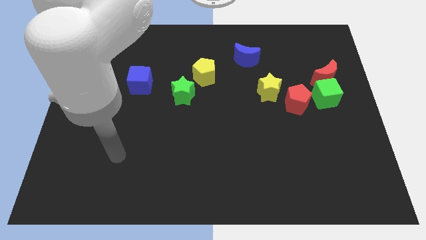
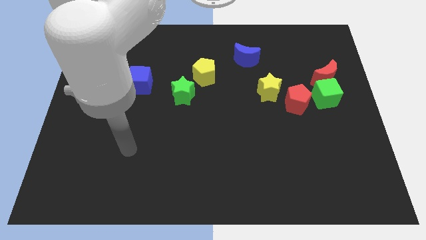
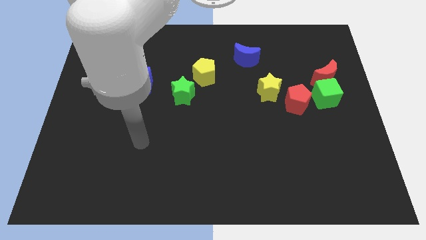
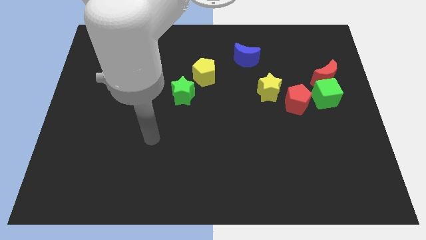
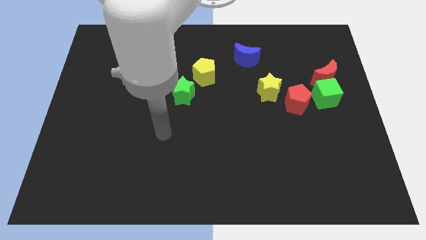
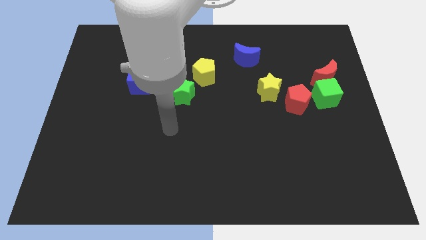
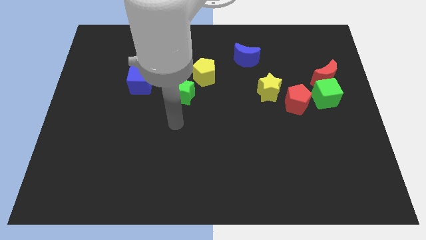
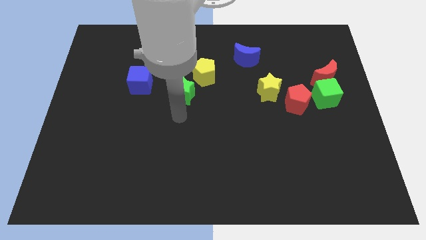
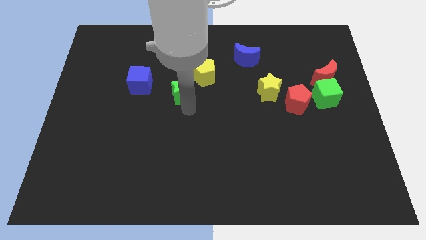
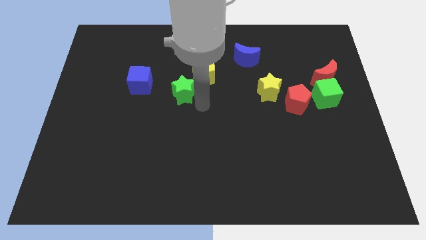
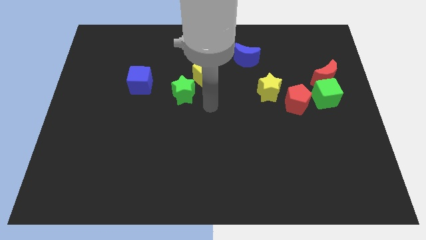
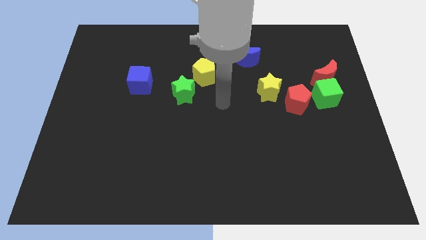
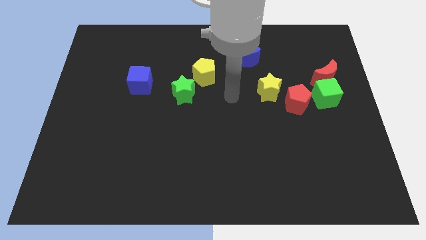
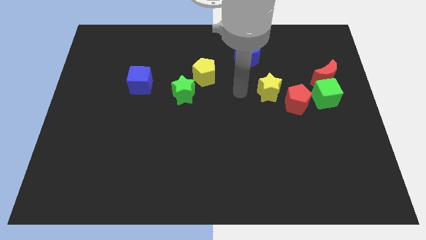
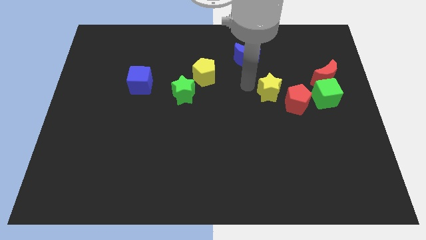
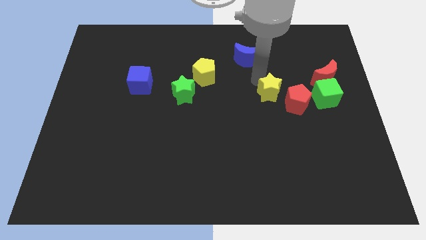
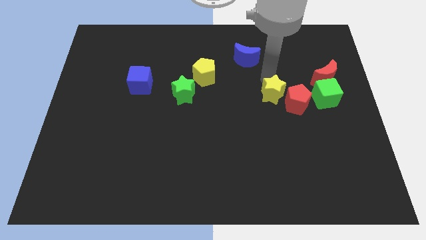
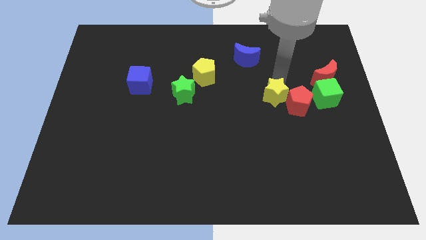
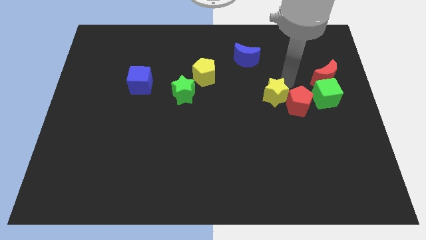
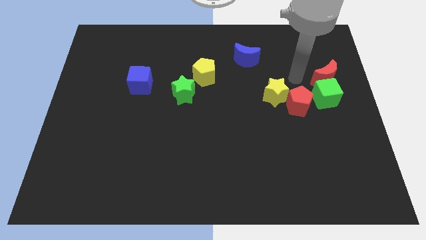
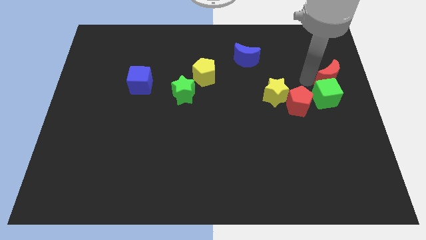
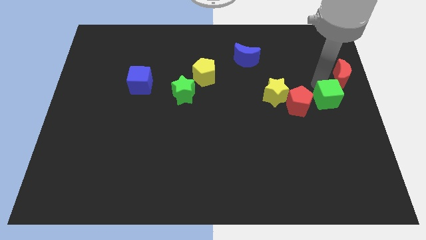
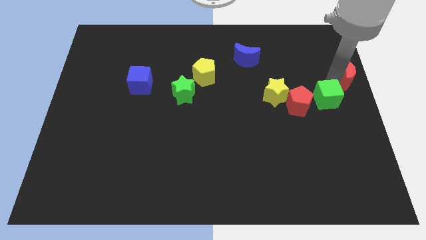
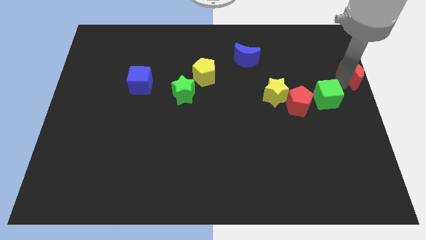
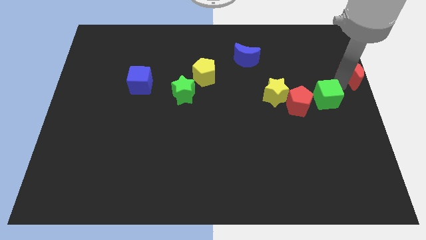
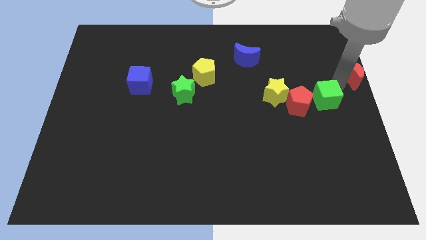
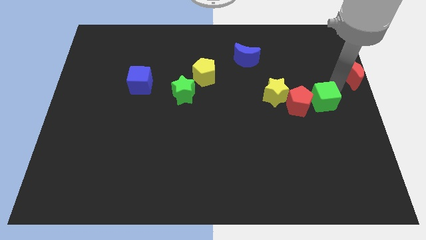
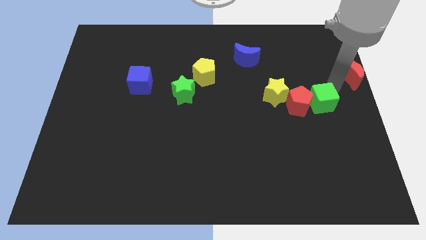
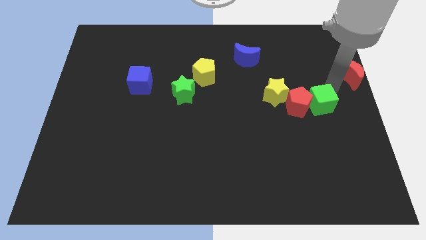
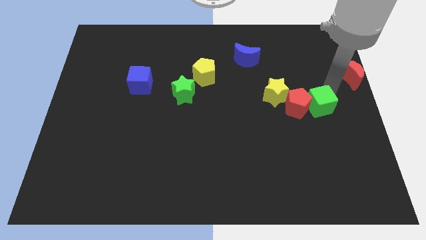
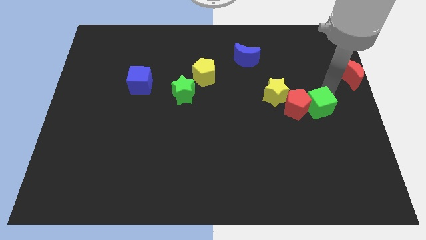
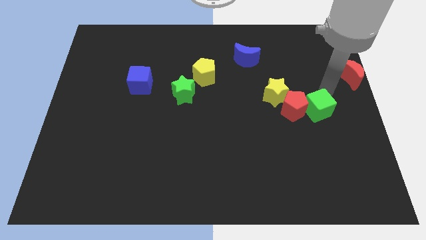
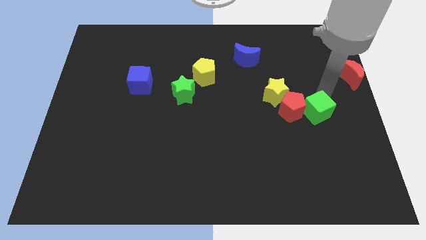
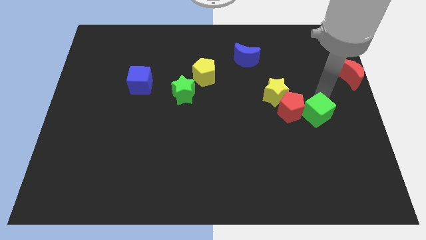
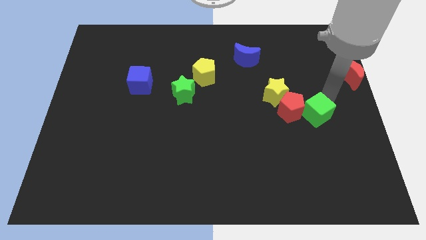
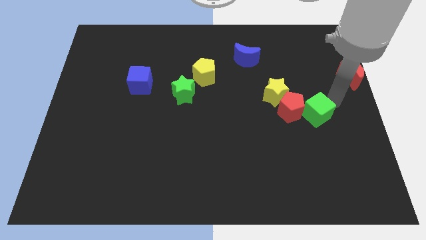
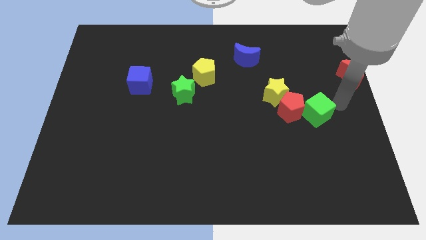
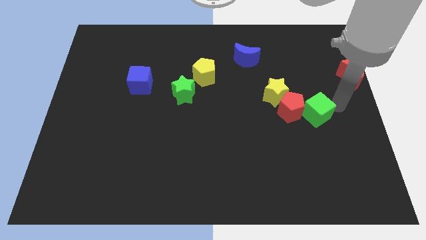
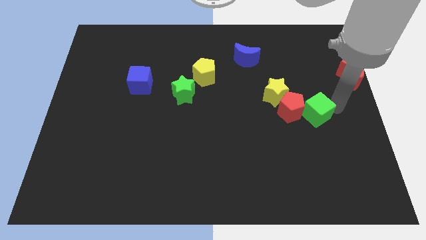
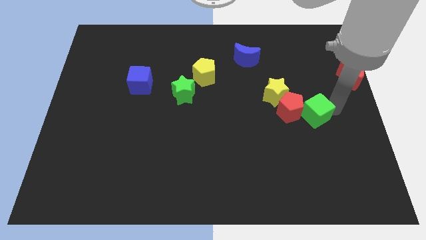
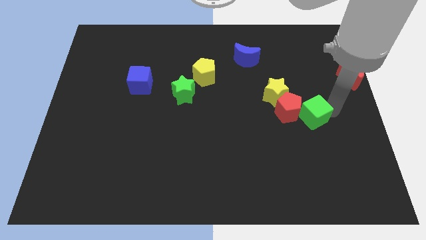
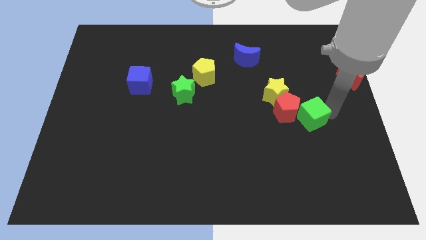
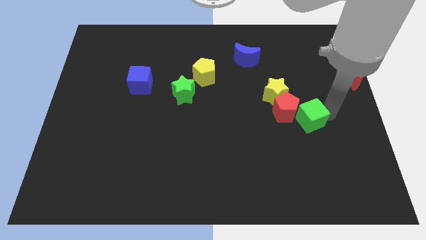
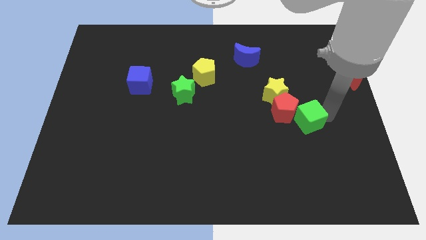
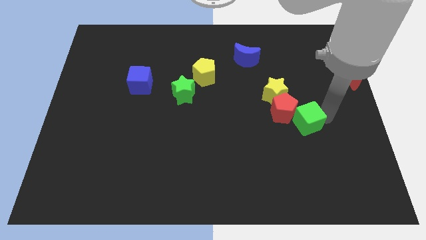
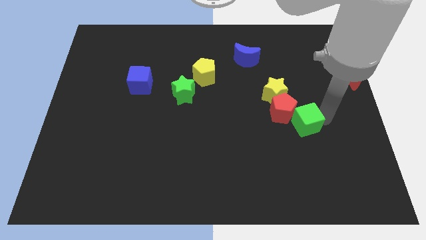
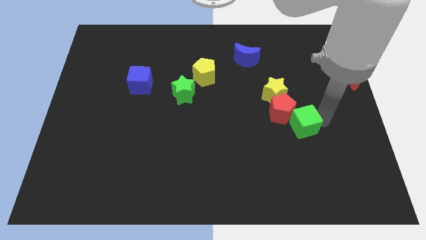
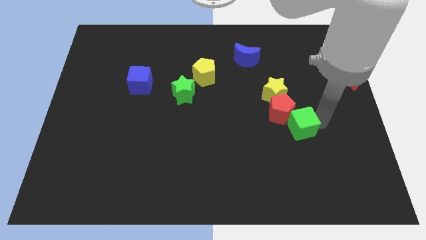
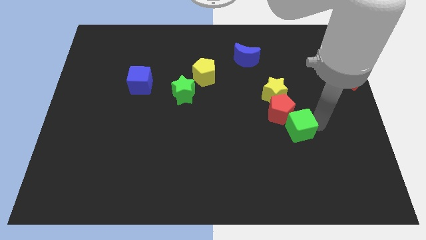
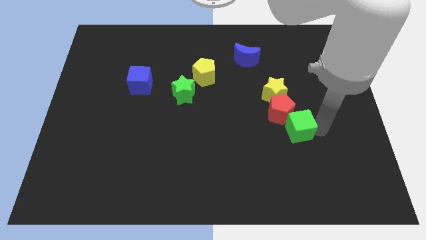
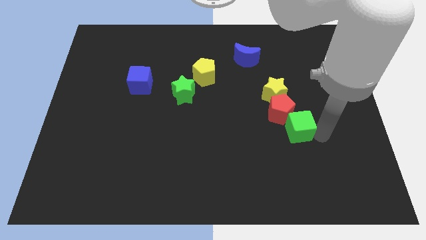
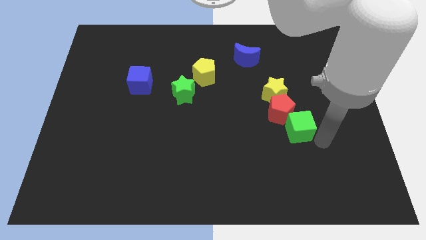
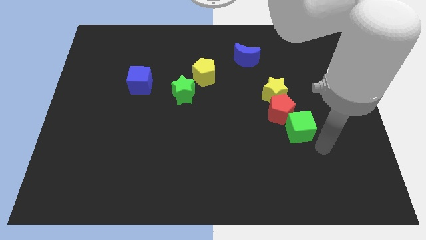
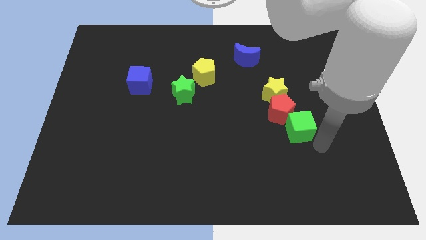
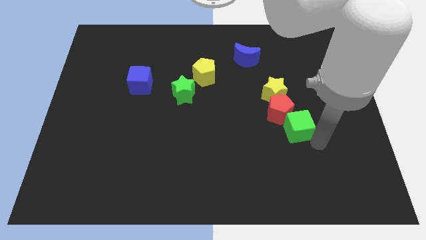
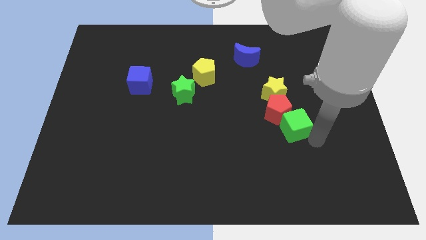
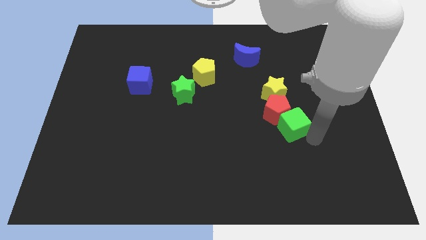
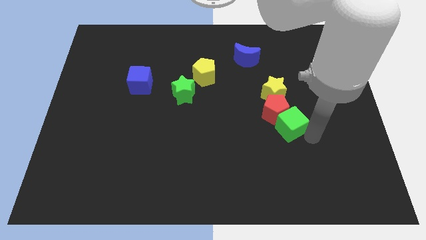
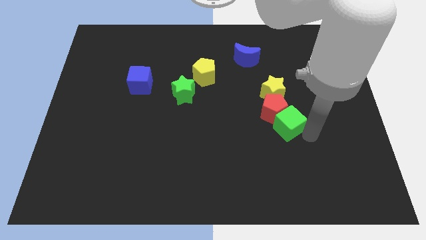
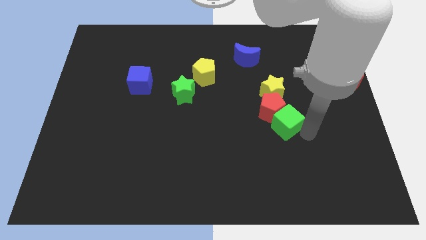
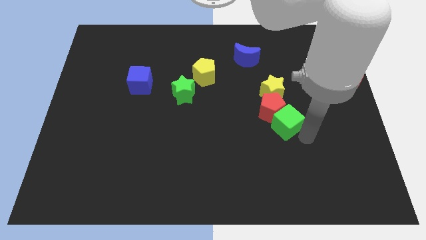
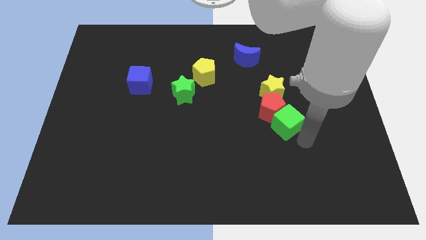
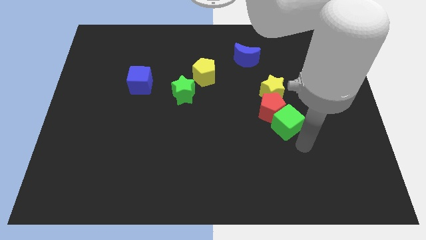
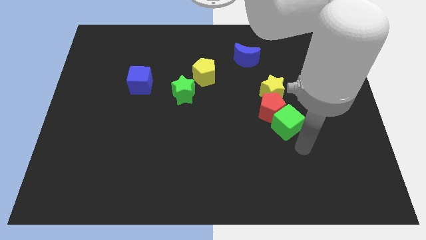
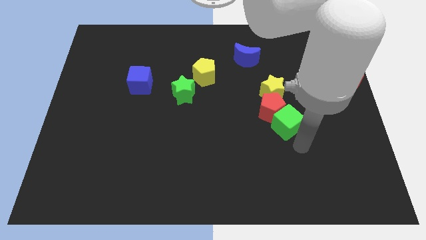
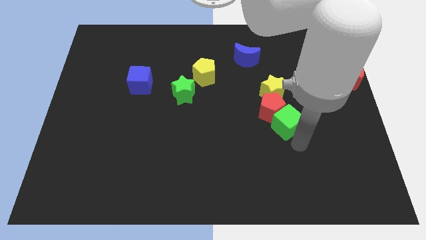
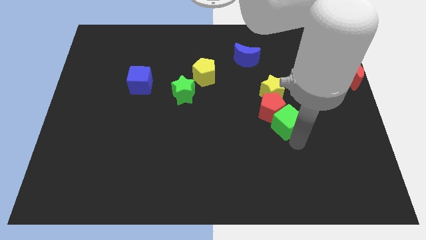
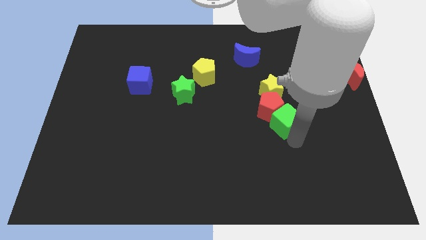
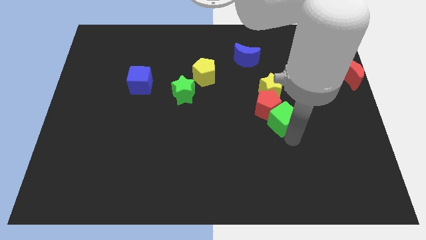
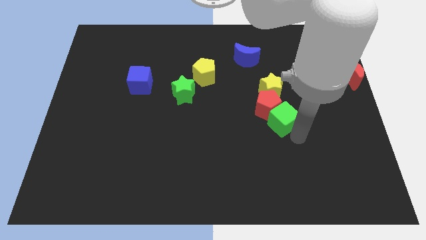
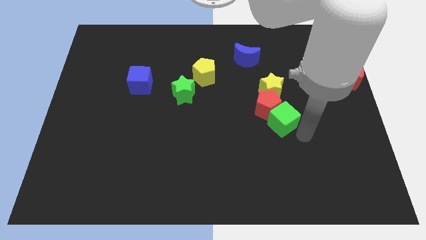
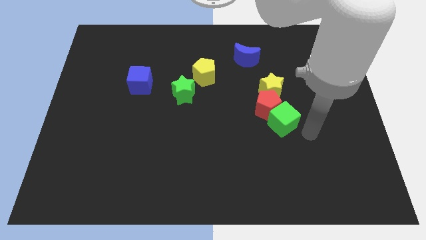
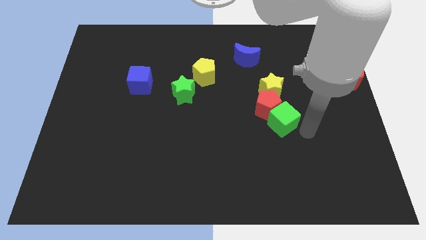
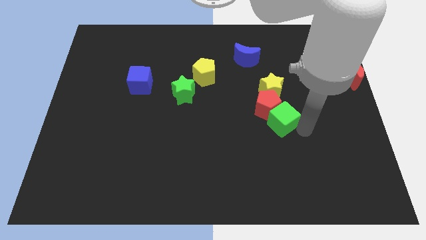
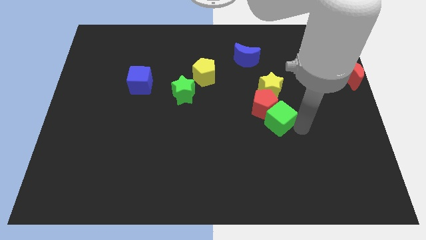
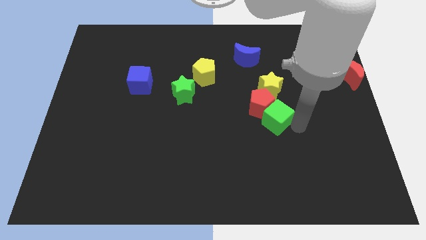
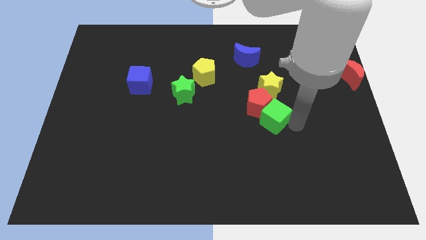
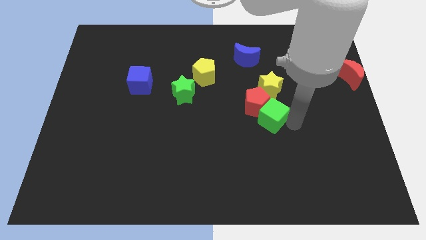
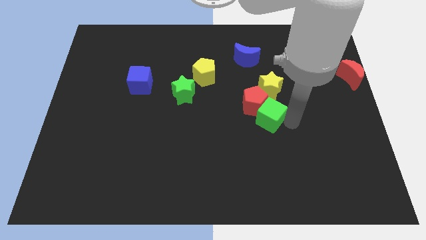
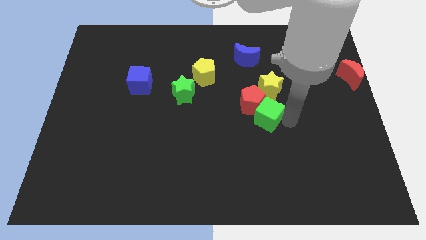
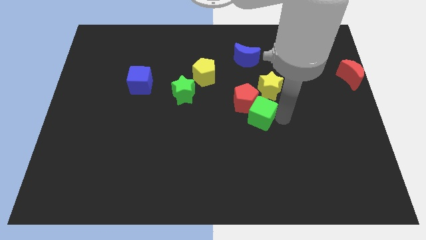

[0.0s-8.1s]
move the green cube to the middle of the board
